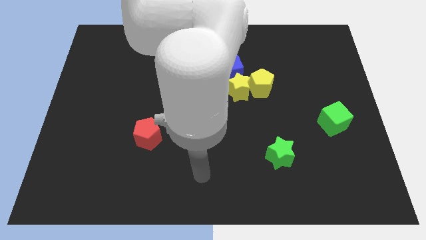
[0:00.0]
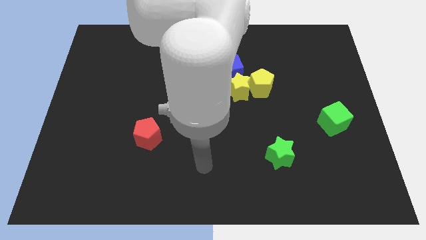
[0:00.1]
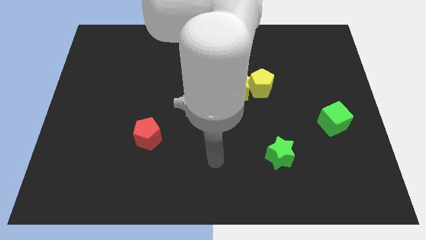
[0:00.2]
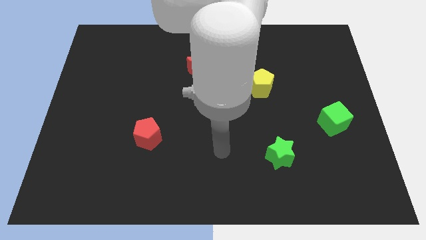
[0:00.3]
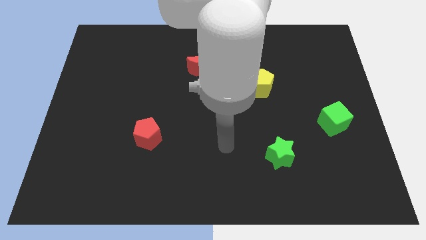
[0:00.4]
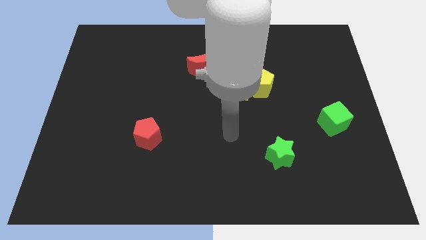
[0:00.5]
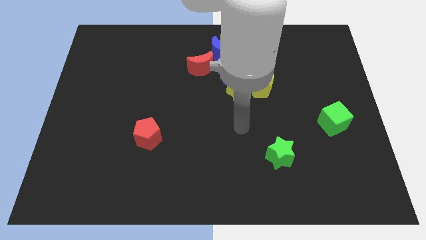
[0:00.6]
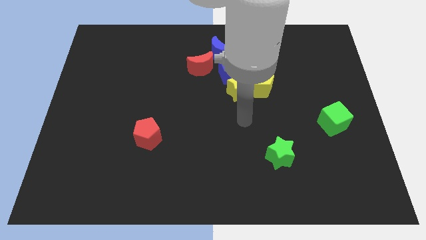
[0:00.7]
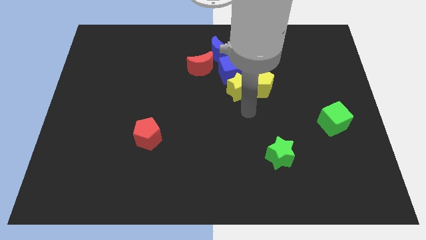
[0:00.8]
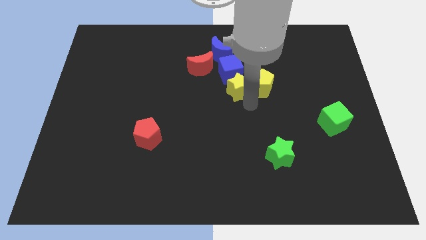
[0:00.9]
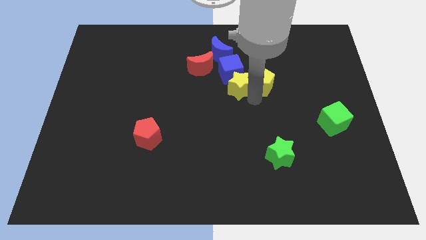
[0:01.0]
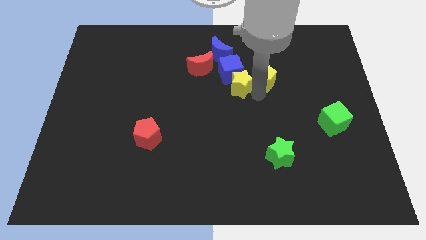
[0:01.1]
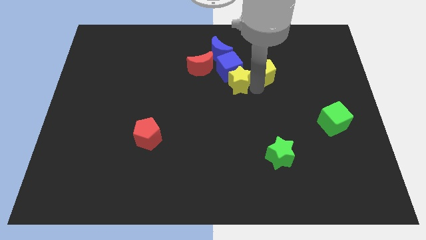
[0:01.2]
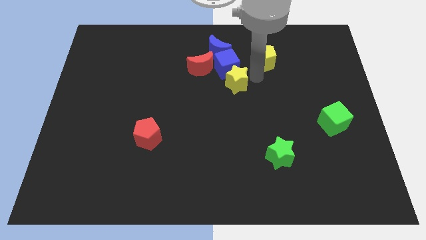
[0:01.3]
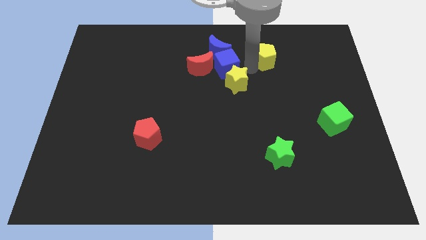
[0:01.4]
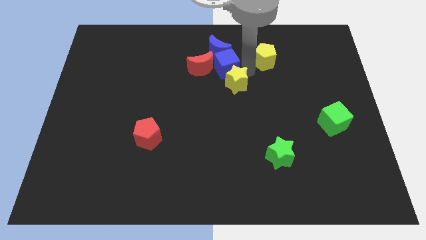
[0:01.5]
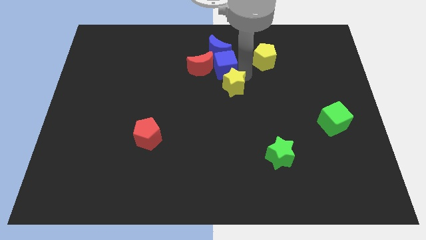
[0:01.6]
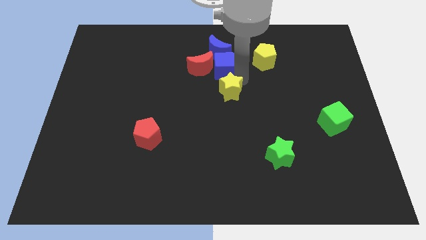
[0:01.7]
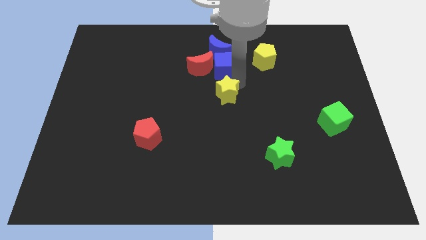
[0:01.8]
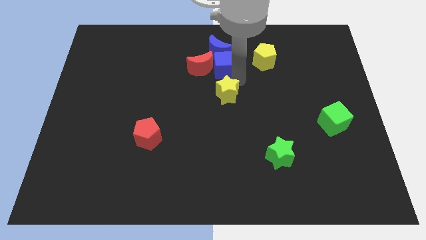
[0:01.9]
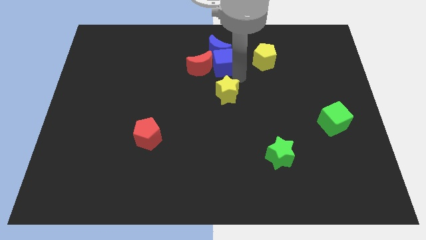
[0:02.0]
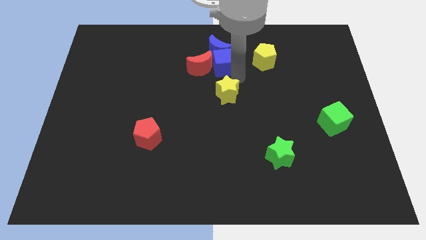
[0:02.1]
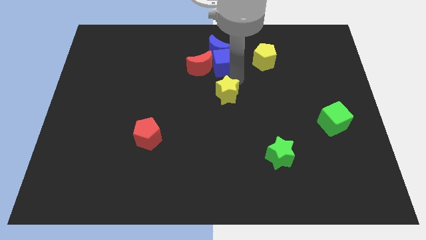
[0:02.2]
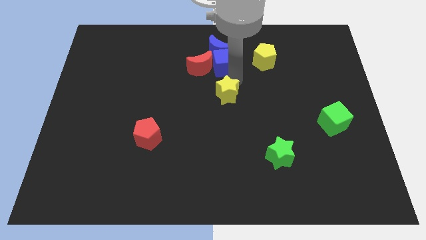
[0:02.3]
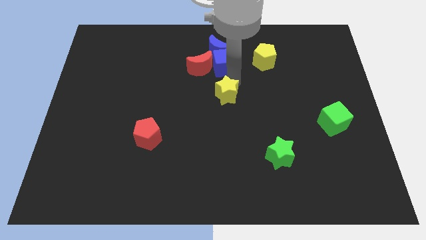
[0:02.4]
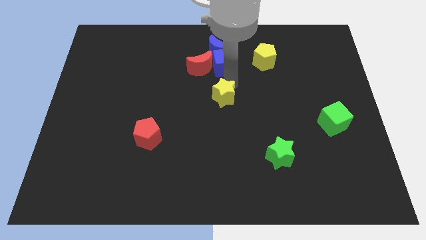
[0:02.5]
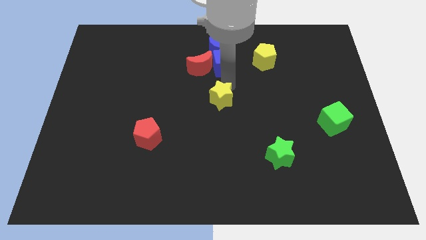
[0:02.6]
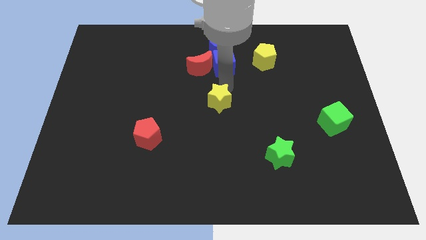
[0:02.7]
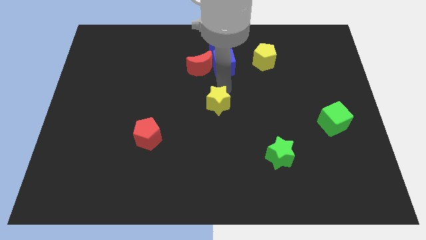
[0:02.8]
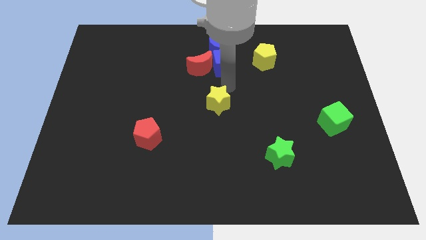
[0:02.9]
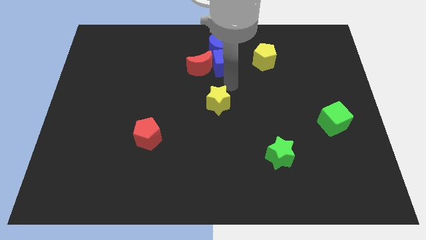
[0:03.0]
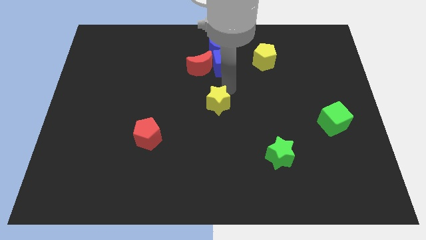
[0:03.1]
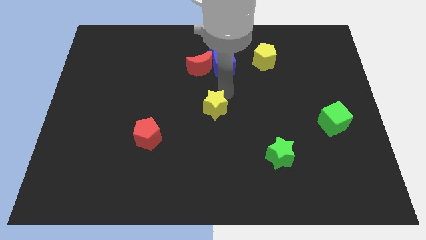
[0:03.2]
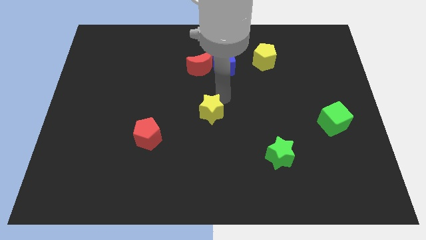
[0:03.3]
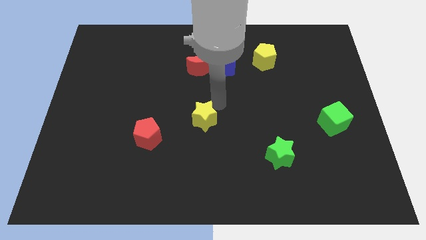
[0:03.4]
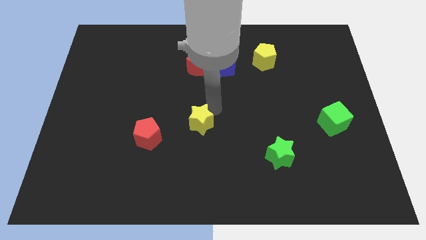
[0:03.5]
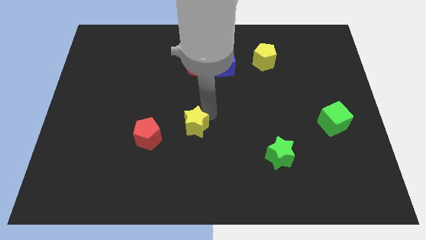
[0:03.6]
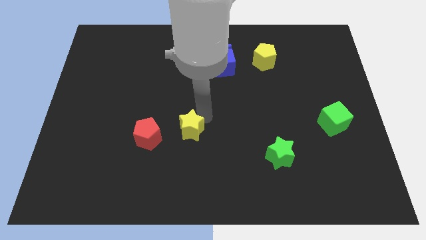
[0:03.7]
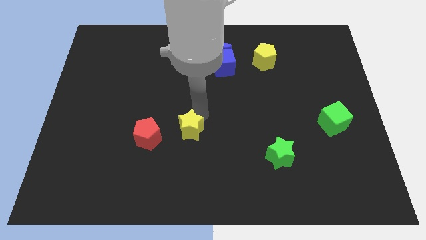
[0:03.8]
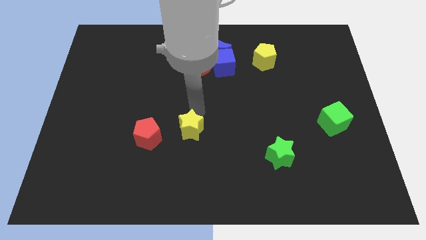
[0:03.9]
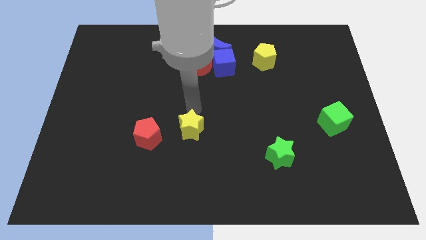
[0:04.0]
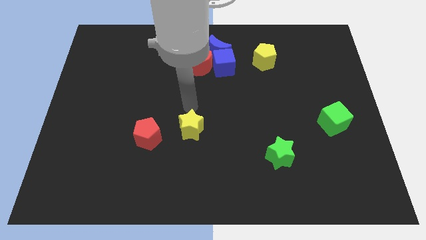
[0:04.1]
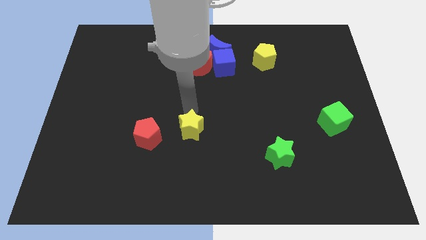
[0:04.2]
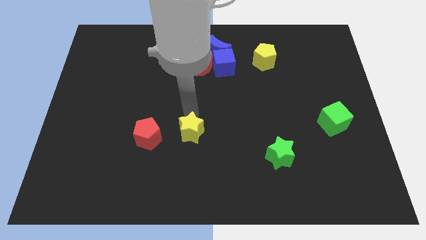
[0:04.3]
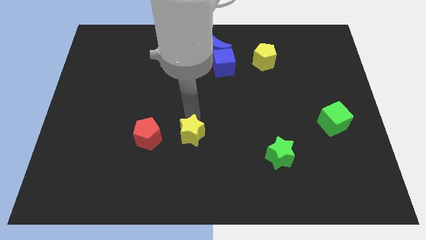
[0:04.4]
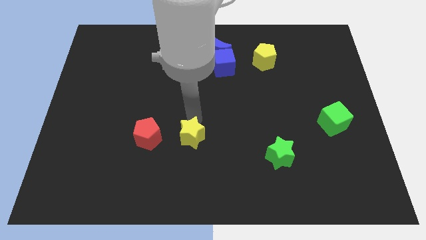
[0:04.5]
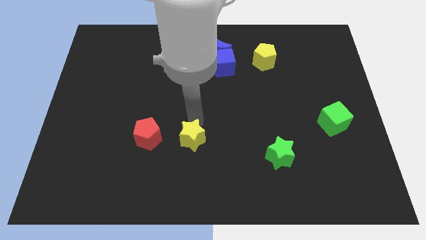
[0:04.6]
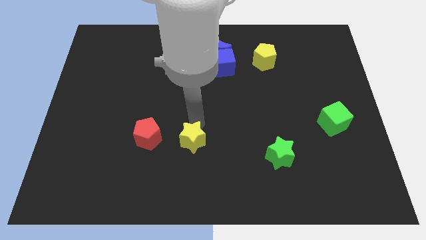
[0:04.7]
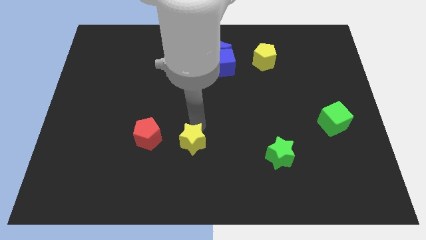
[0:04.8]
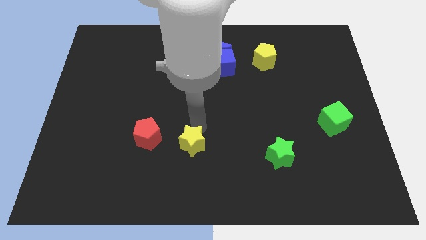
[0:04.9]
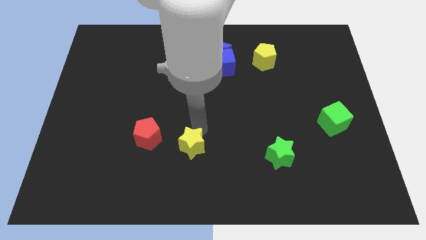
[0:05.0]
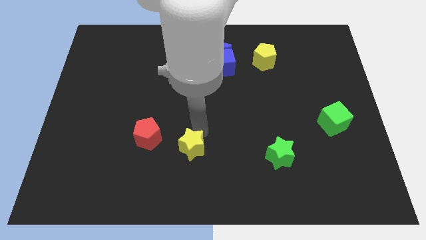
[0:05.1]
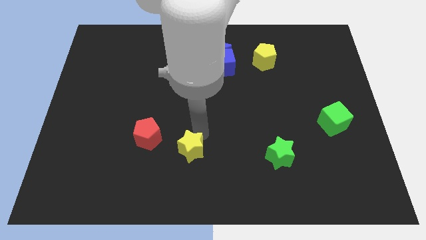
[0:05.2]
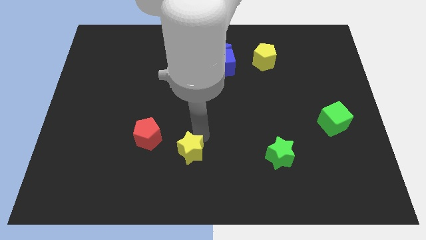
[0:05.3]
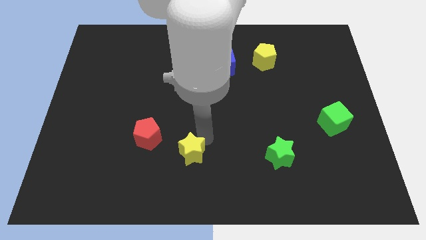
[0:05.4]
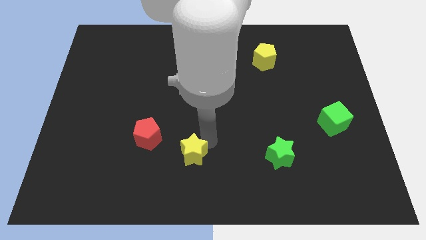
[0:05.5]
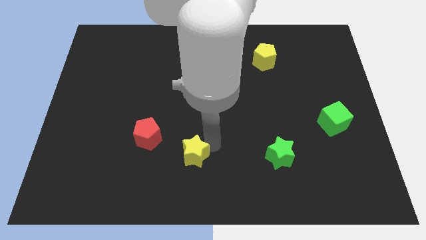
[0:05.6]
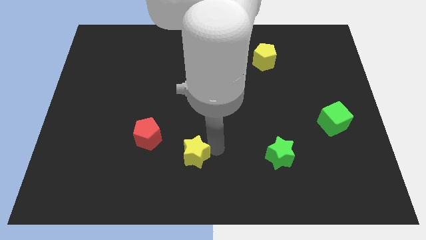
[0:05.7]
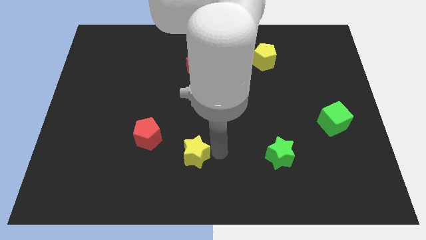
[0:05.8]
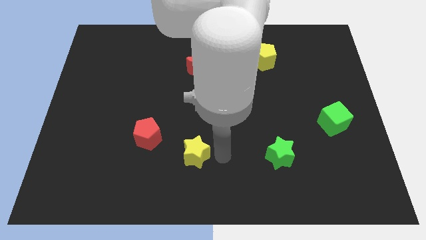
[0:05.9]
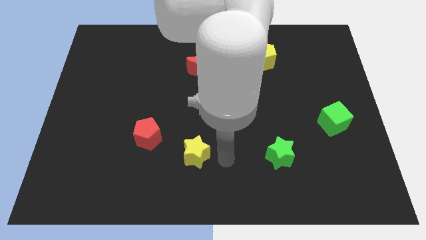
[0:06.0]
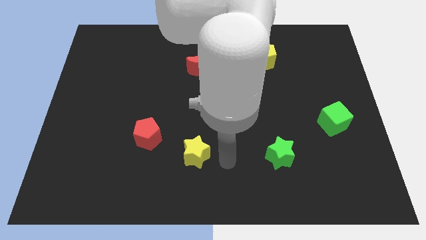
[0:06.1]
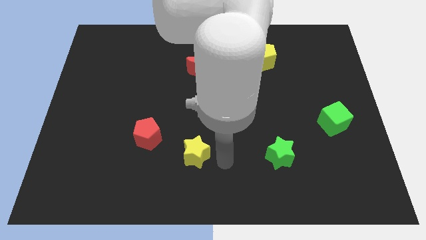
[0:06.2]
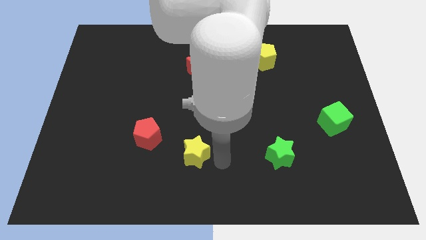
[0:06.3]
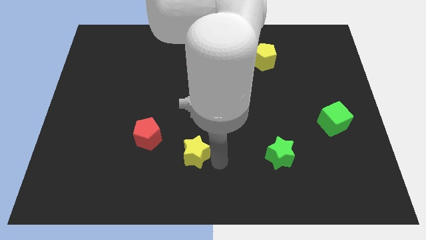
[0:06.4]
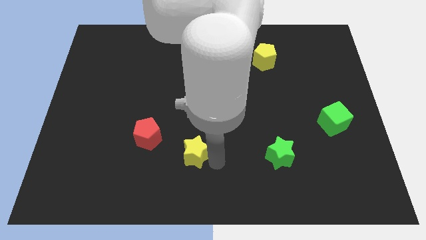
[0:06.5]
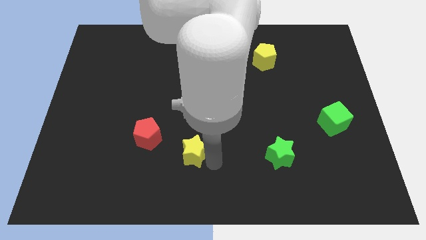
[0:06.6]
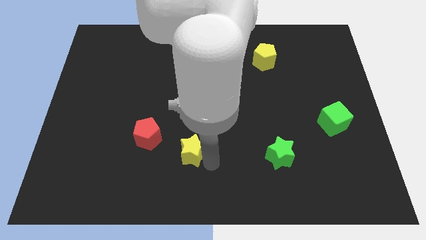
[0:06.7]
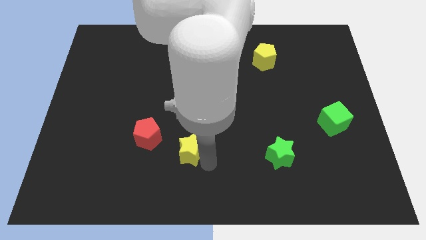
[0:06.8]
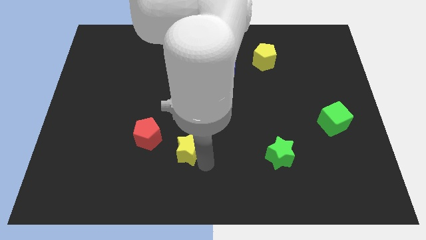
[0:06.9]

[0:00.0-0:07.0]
move the yellow star down and to the left diagonally

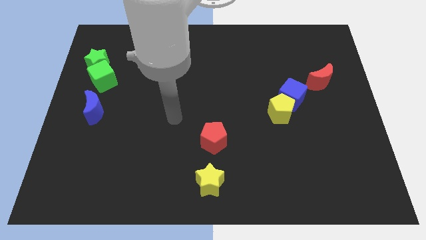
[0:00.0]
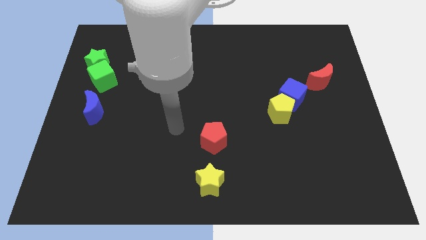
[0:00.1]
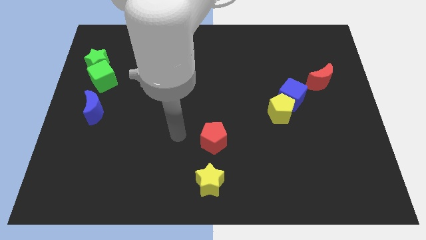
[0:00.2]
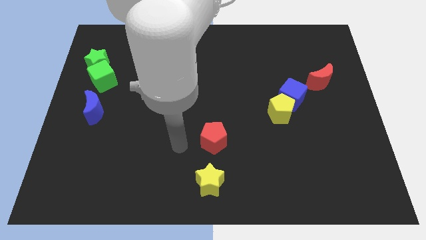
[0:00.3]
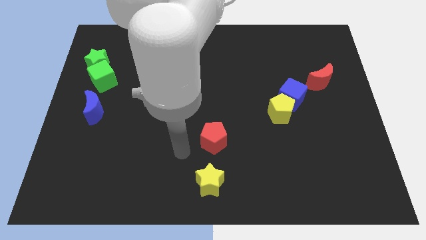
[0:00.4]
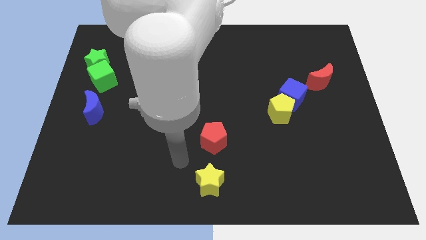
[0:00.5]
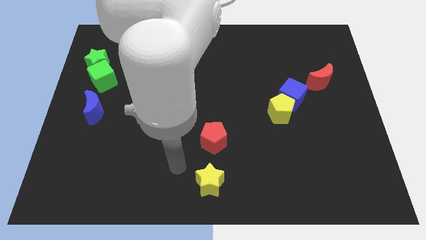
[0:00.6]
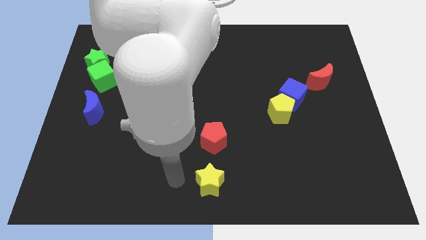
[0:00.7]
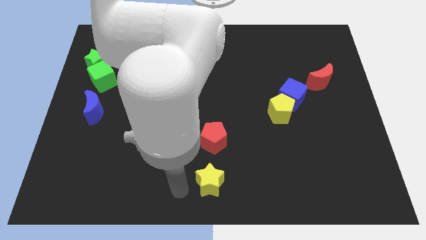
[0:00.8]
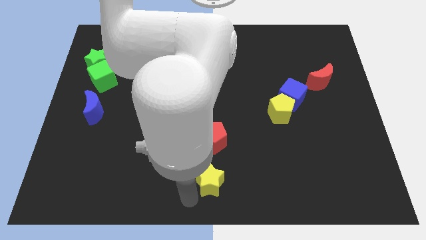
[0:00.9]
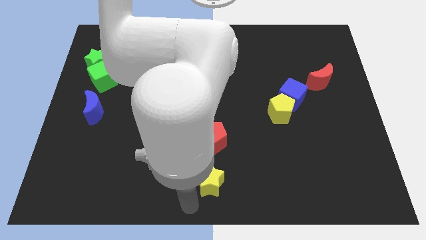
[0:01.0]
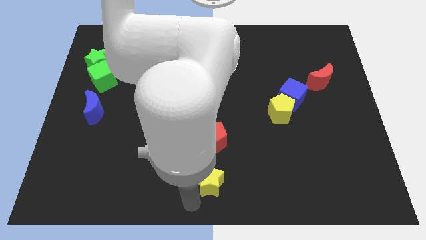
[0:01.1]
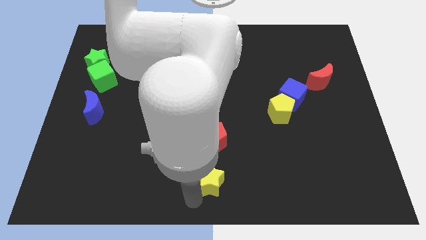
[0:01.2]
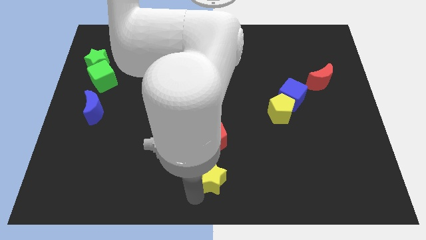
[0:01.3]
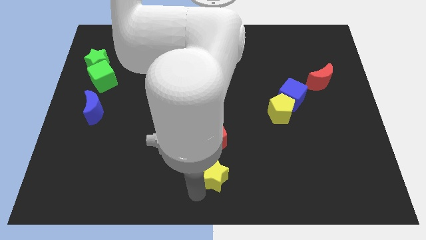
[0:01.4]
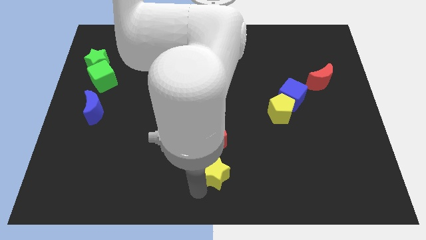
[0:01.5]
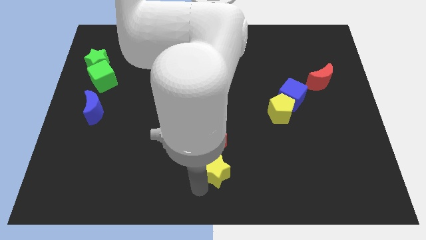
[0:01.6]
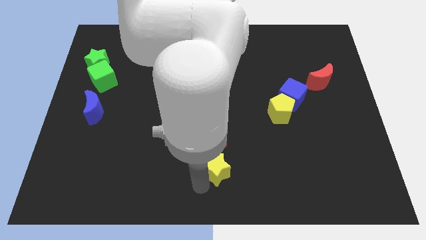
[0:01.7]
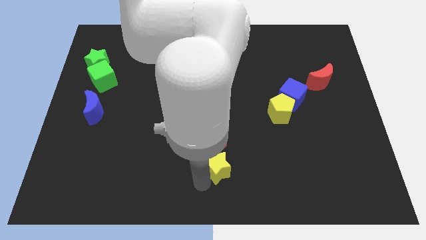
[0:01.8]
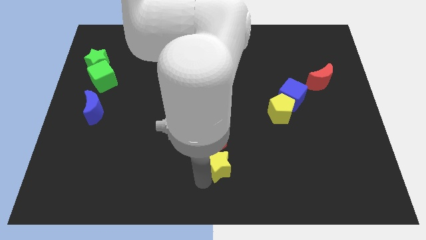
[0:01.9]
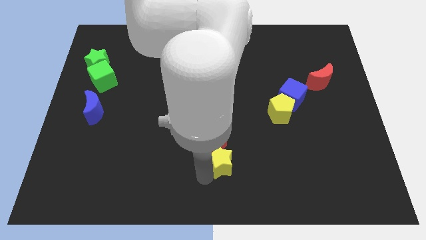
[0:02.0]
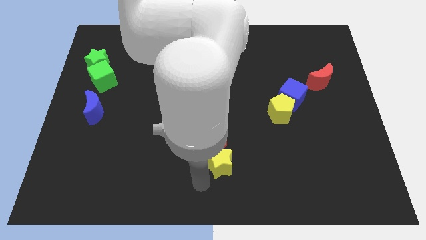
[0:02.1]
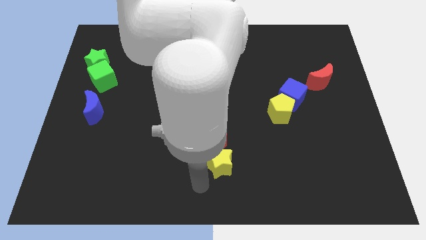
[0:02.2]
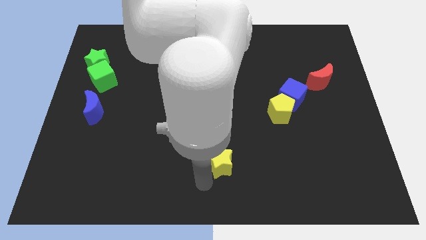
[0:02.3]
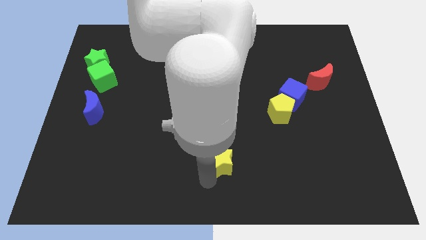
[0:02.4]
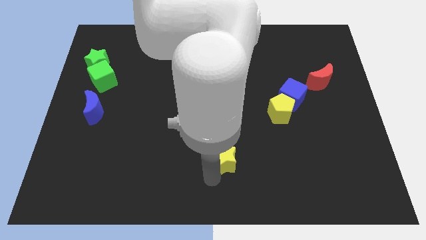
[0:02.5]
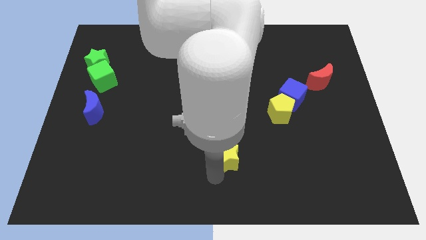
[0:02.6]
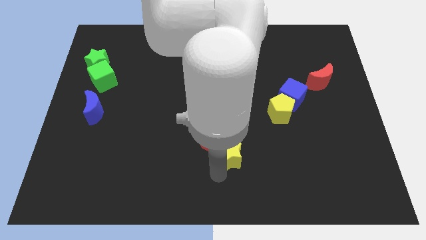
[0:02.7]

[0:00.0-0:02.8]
push the yellow star slightly up and then to the right
